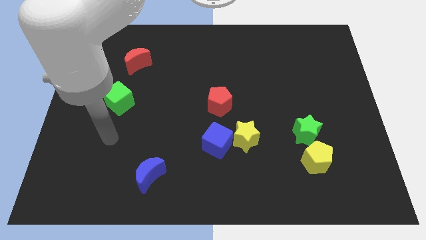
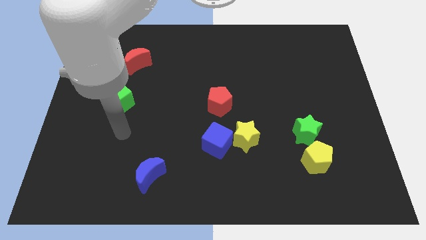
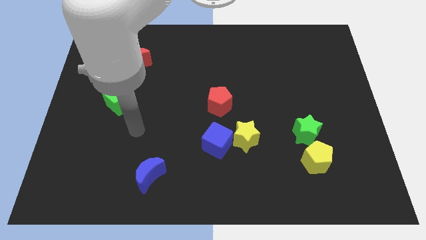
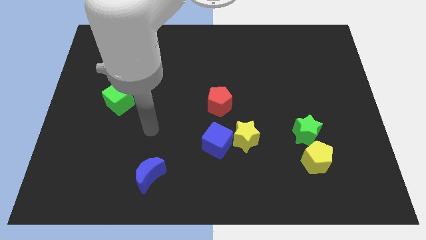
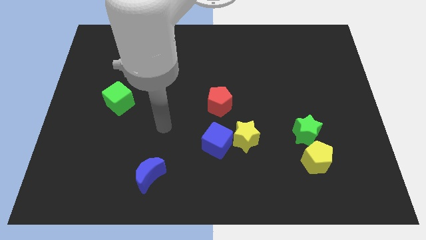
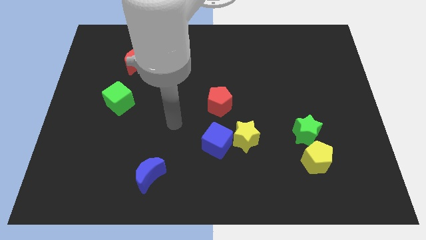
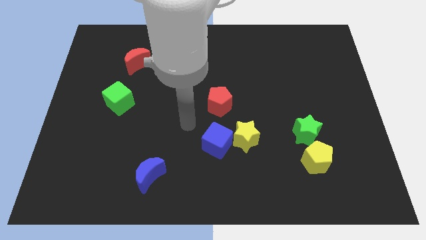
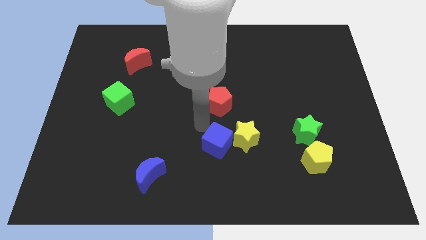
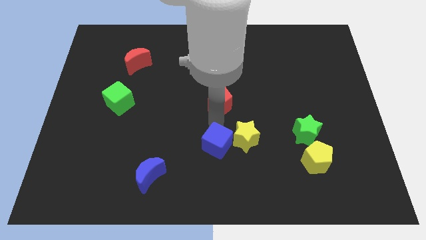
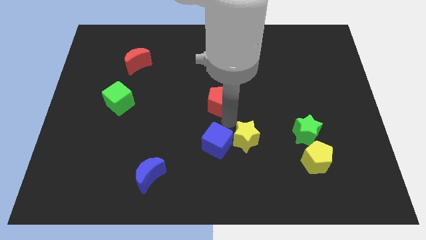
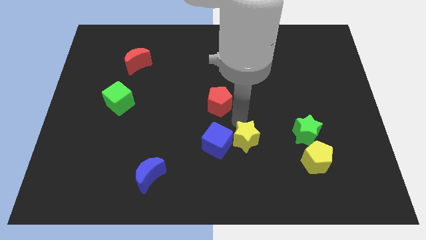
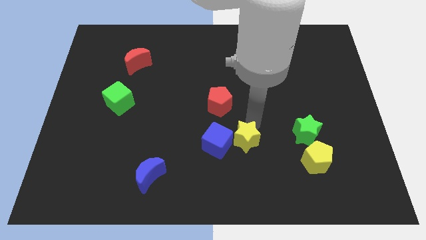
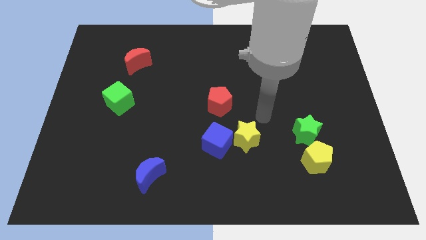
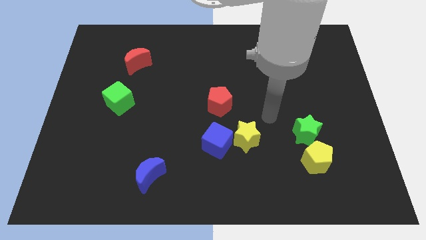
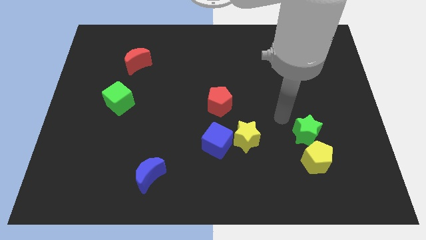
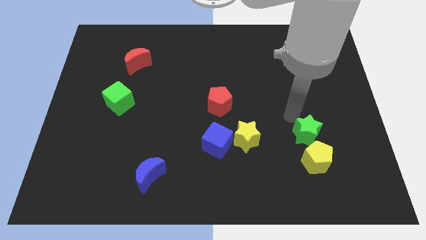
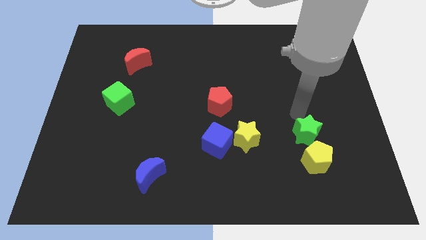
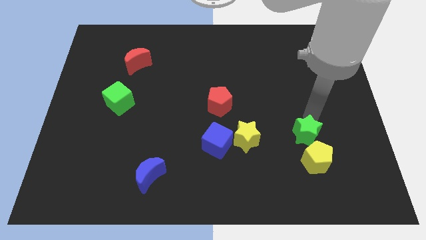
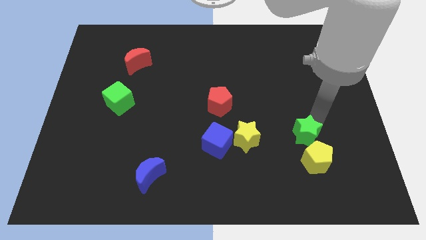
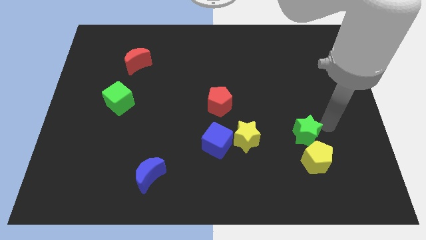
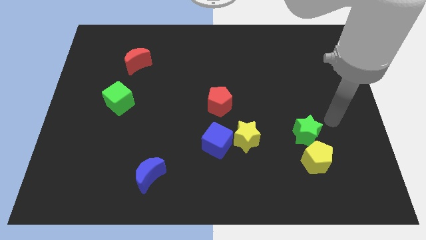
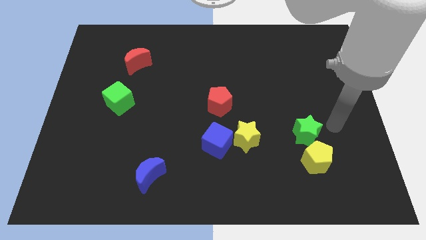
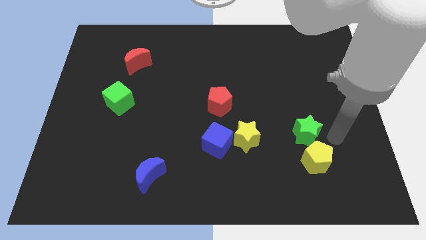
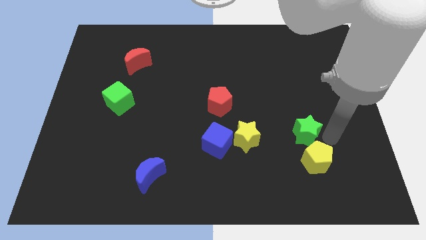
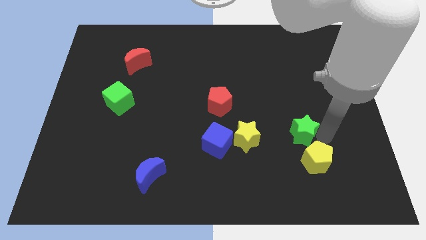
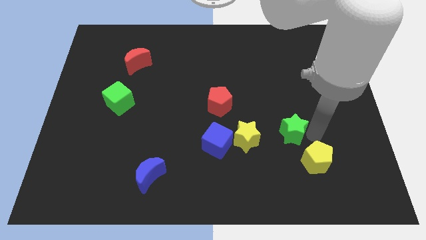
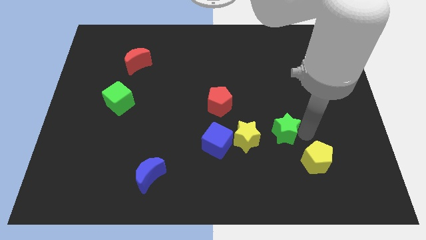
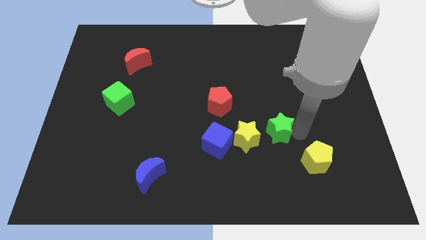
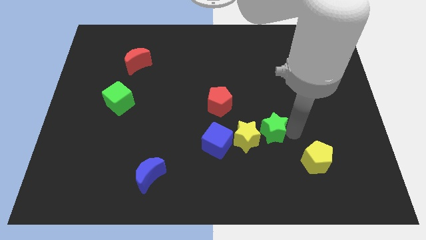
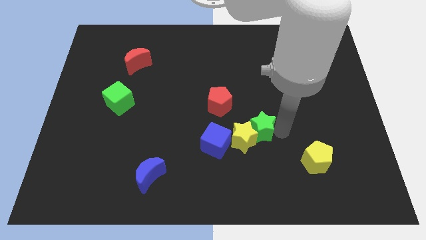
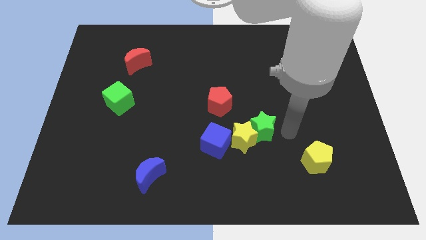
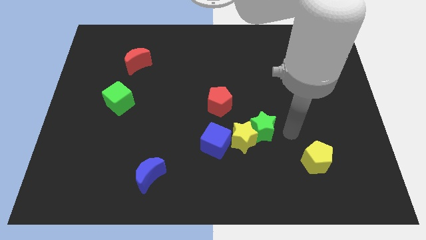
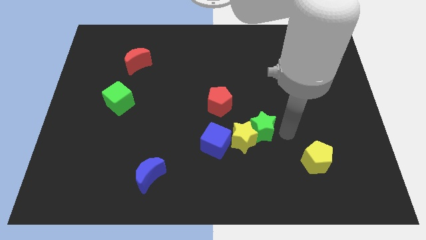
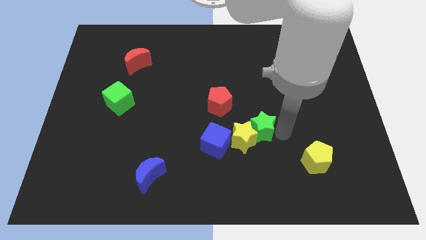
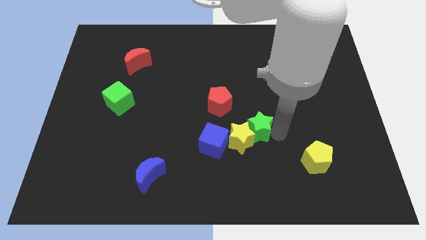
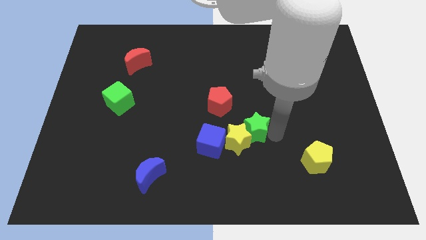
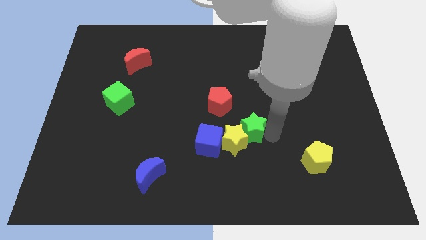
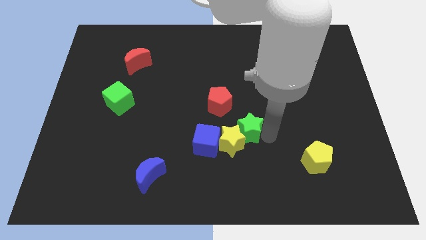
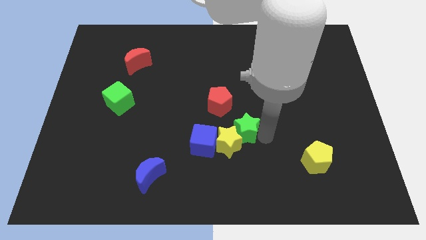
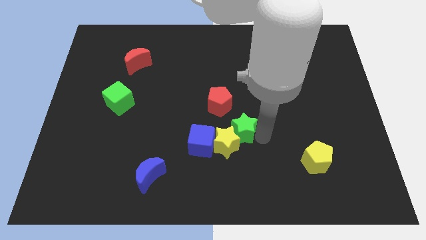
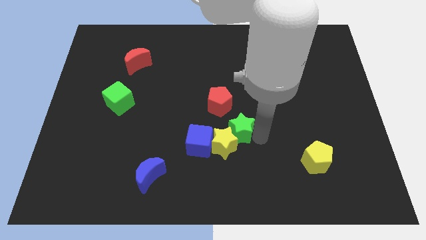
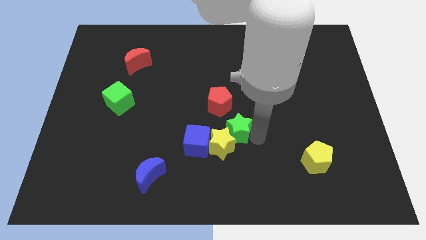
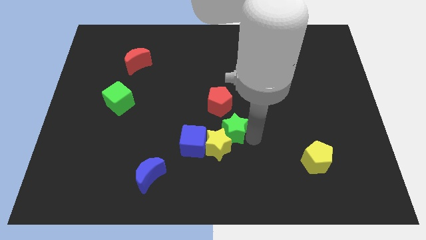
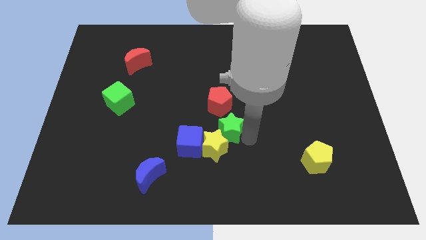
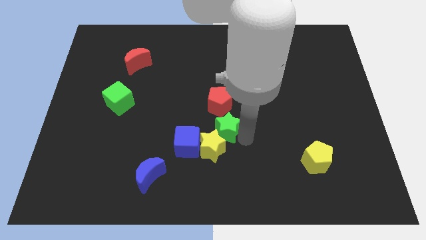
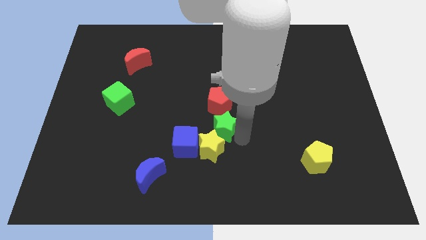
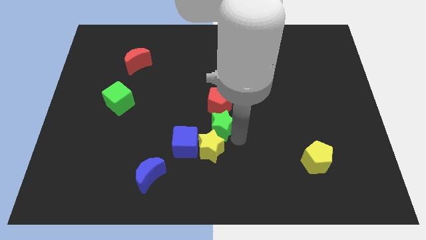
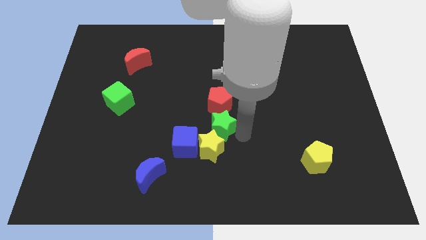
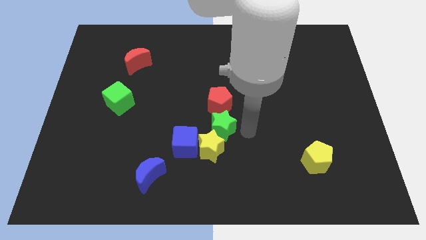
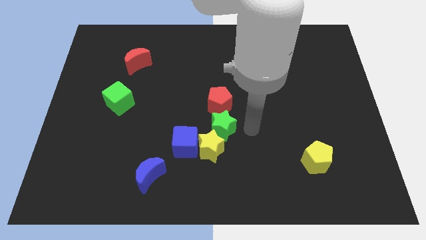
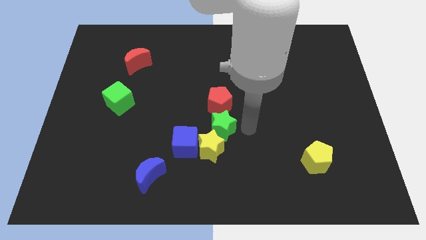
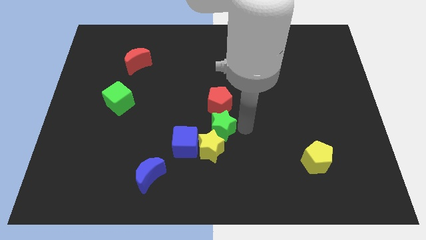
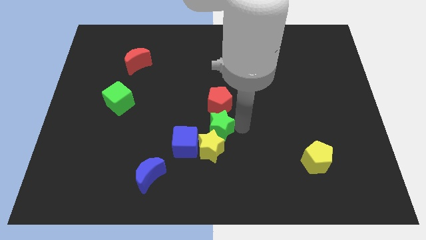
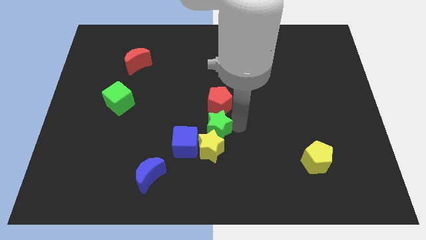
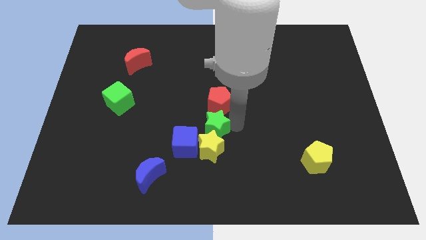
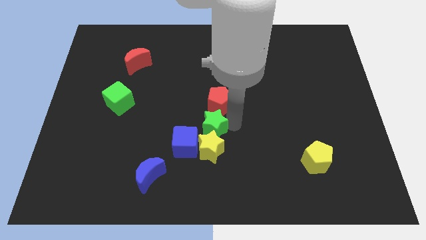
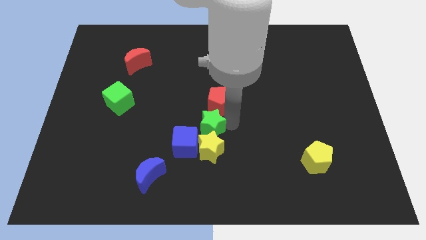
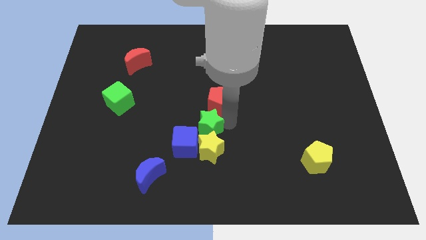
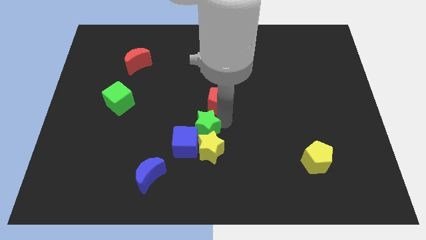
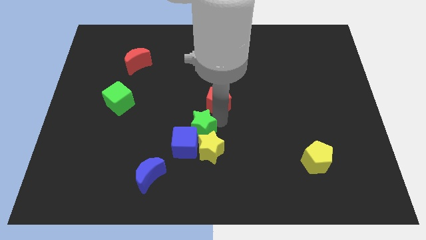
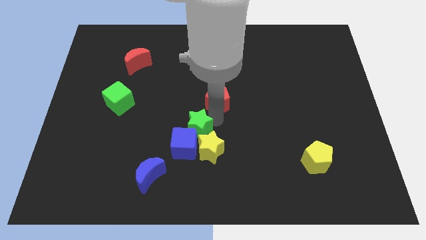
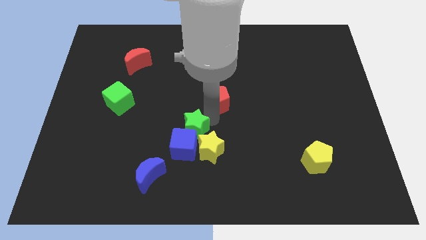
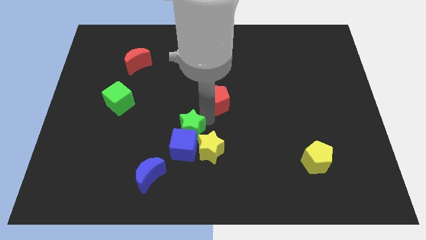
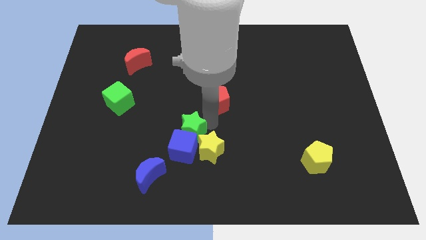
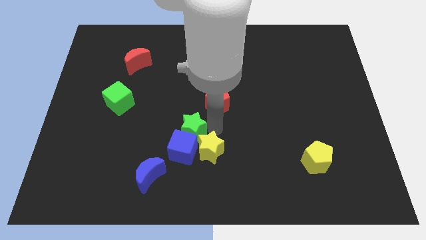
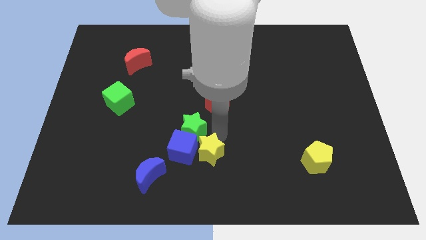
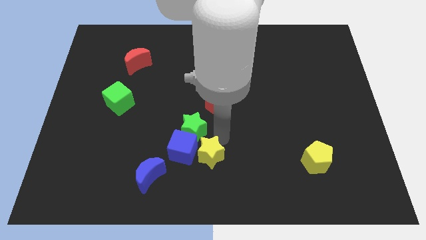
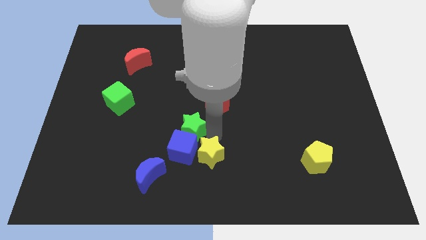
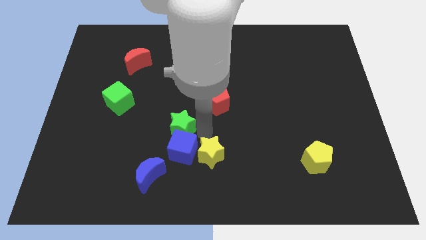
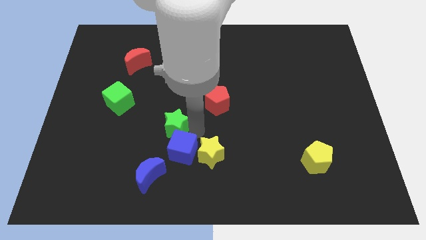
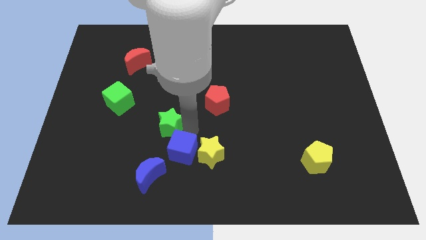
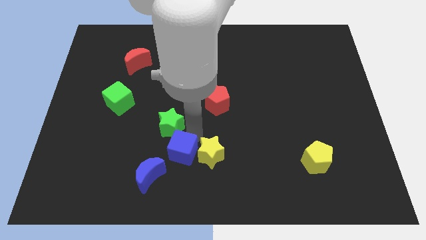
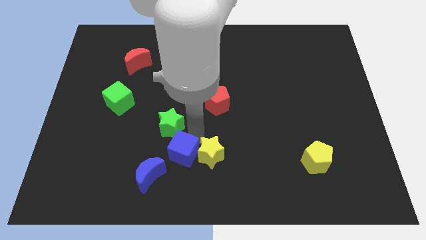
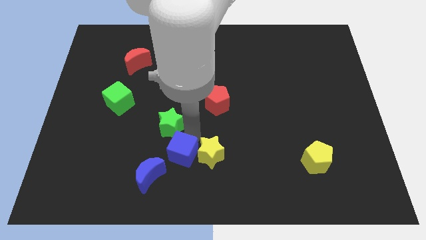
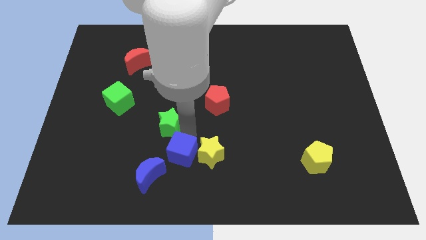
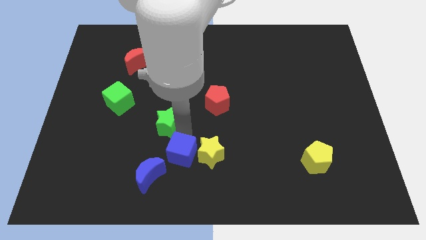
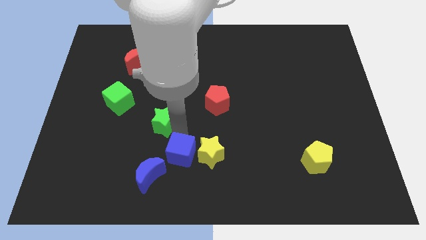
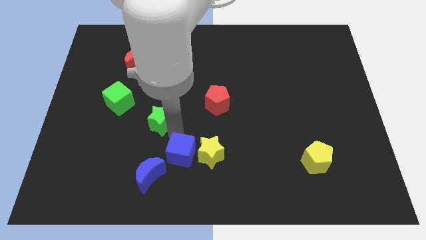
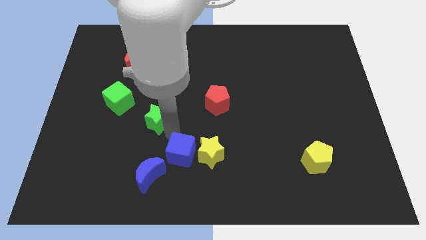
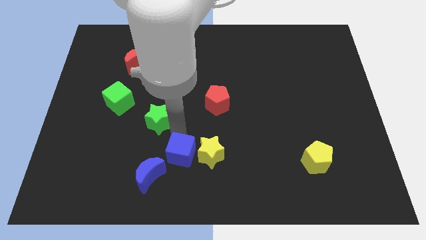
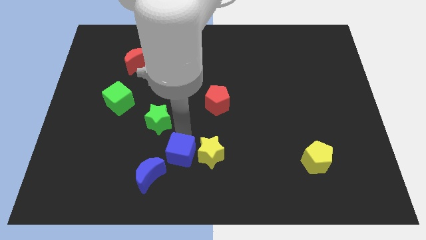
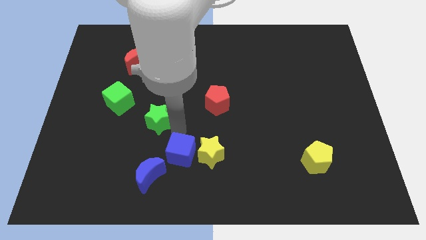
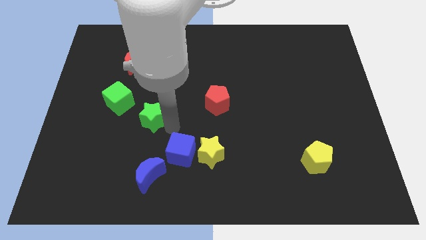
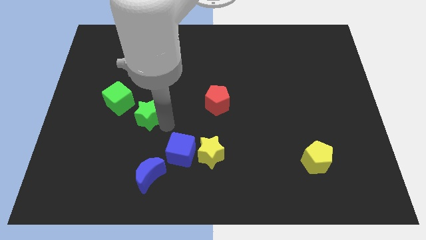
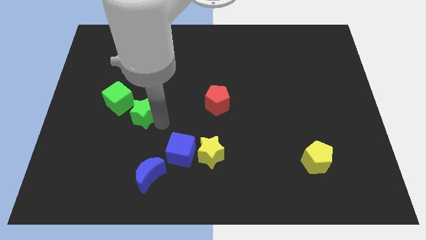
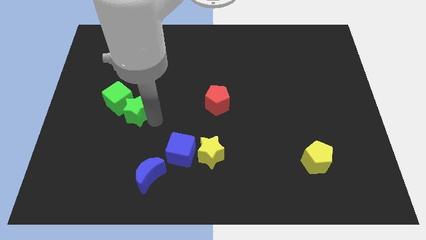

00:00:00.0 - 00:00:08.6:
put the green star close to the green cube
